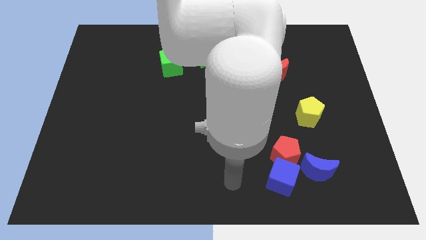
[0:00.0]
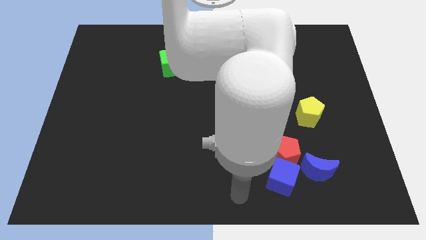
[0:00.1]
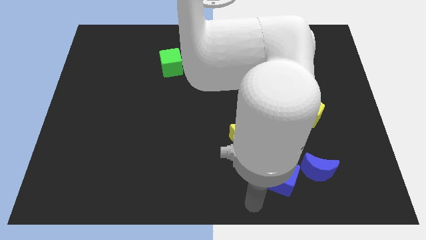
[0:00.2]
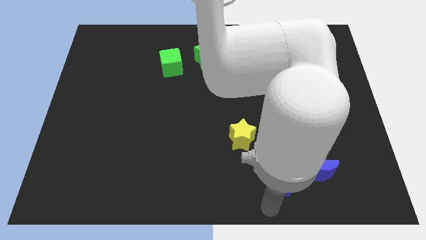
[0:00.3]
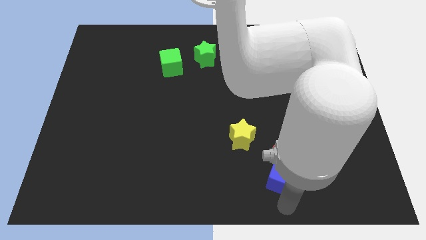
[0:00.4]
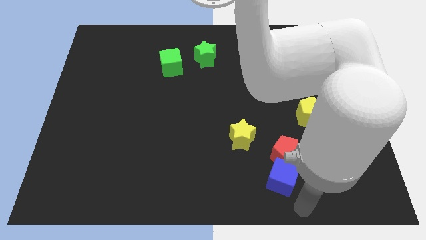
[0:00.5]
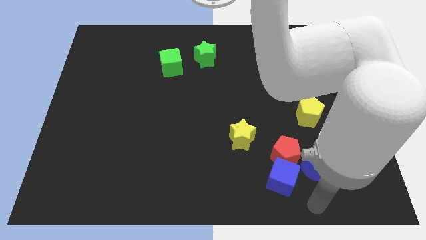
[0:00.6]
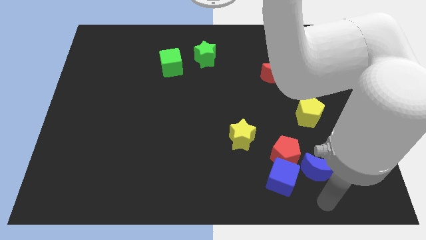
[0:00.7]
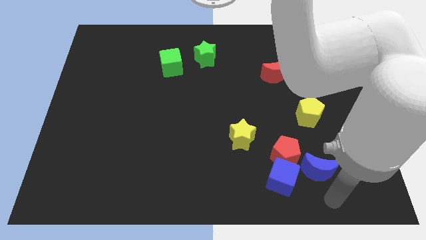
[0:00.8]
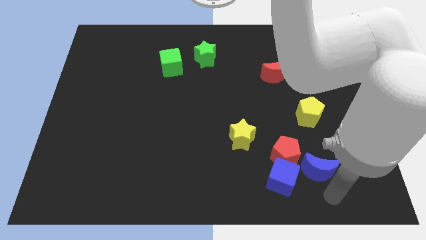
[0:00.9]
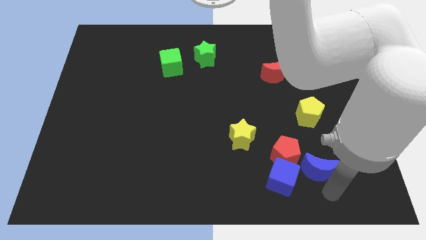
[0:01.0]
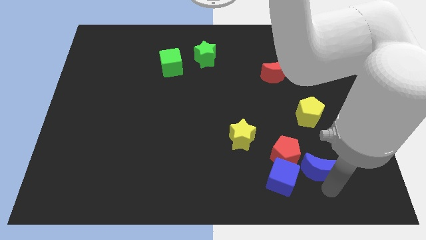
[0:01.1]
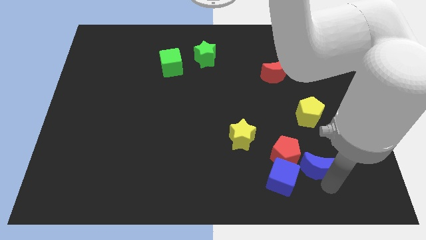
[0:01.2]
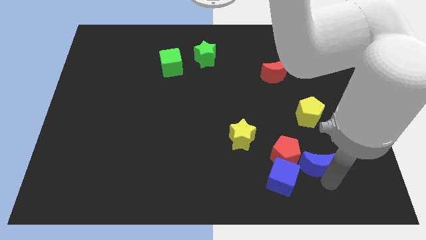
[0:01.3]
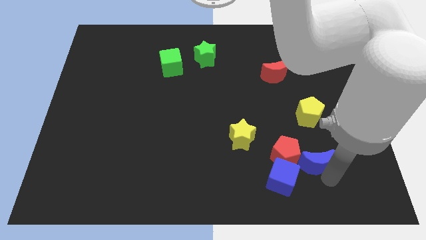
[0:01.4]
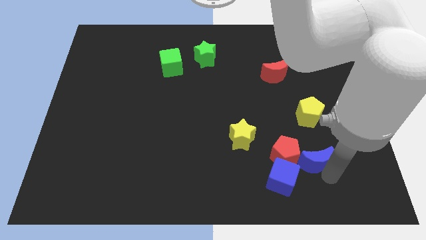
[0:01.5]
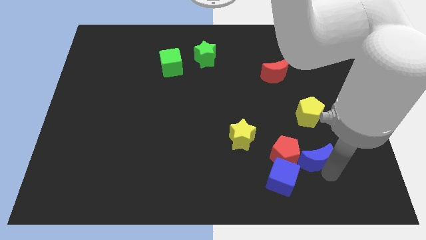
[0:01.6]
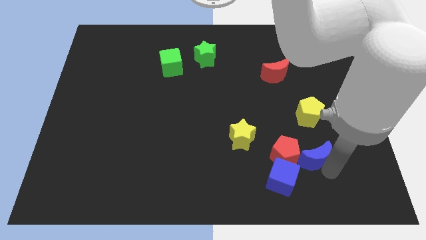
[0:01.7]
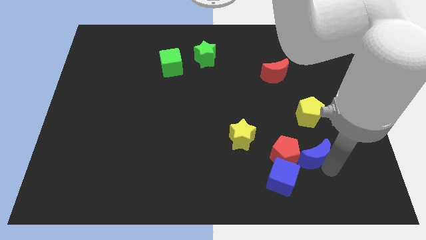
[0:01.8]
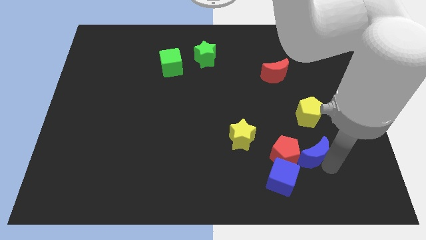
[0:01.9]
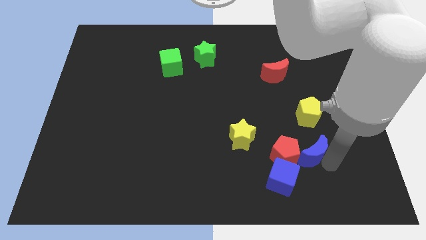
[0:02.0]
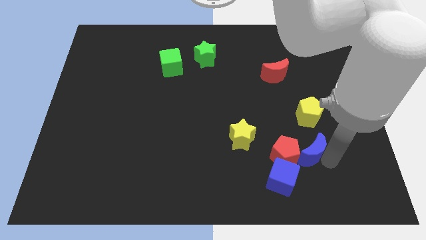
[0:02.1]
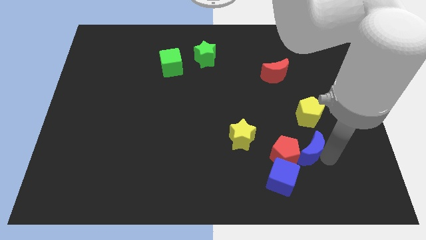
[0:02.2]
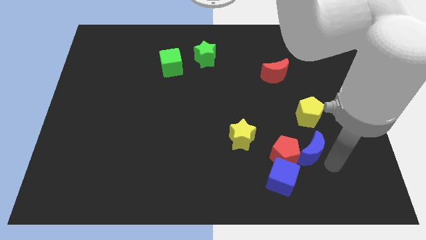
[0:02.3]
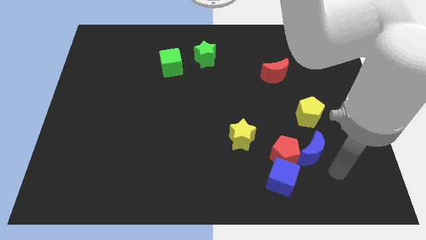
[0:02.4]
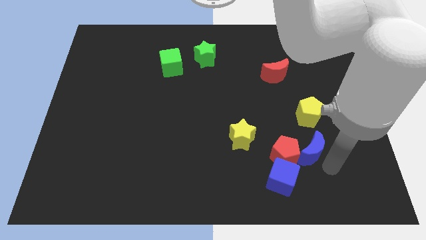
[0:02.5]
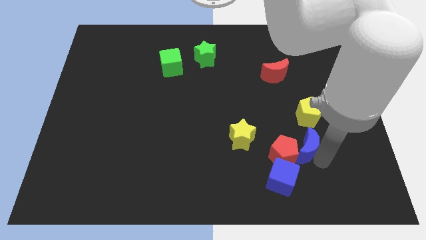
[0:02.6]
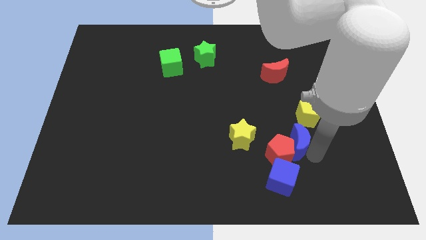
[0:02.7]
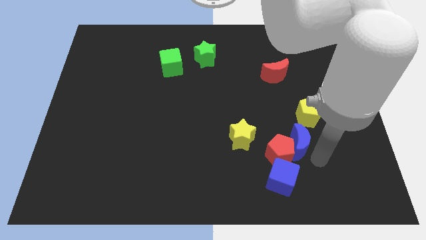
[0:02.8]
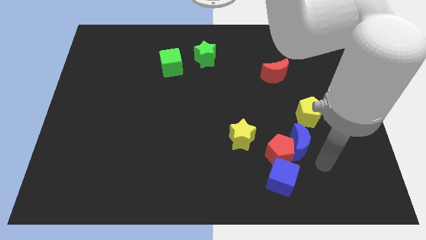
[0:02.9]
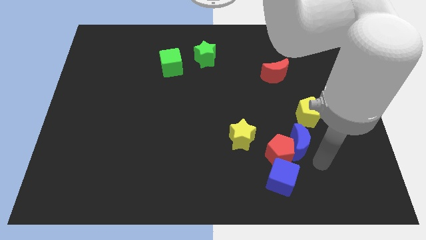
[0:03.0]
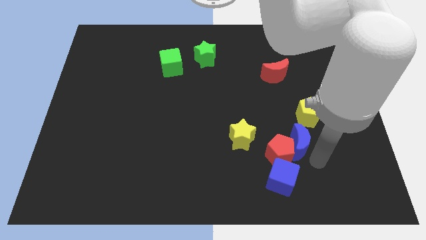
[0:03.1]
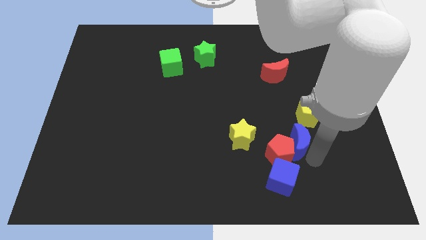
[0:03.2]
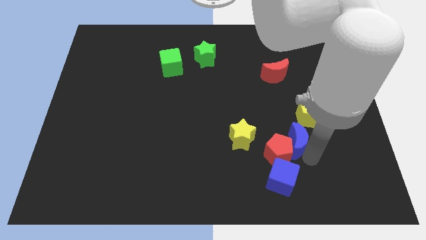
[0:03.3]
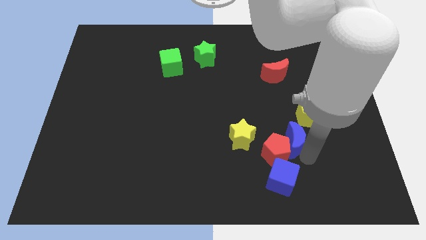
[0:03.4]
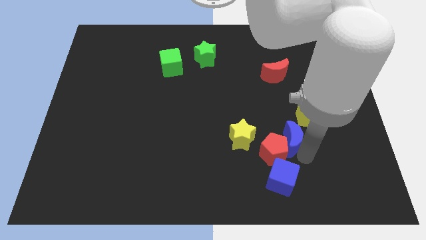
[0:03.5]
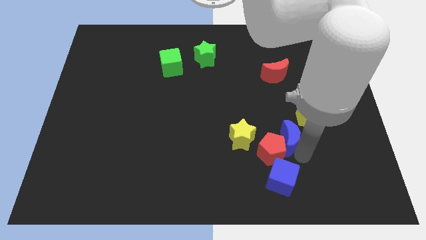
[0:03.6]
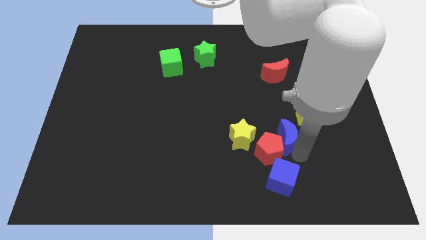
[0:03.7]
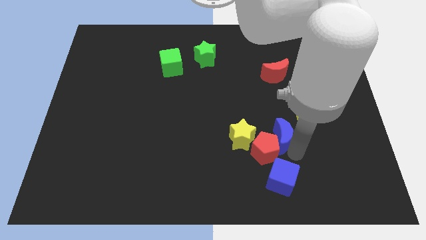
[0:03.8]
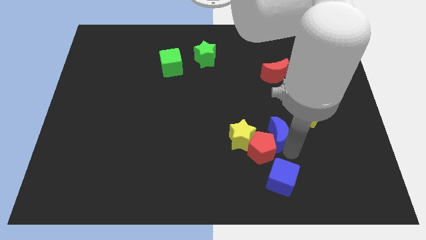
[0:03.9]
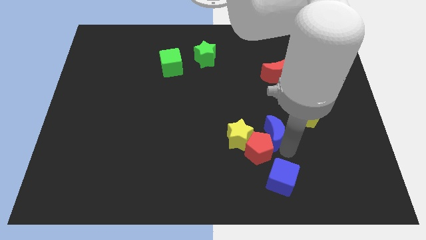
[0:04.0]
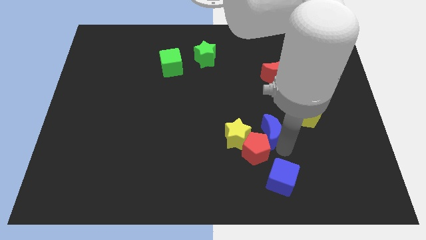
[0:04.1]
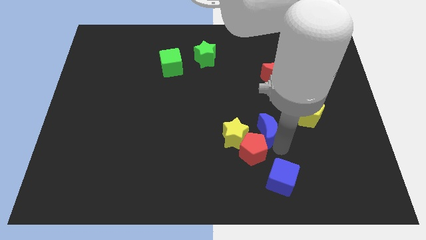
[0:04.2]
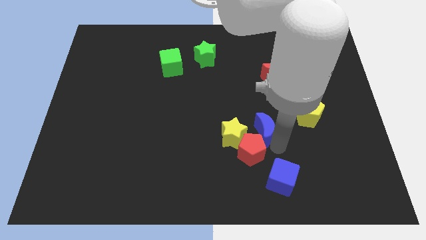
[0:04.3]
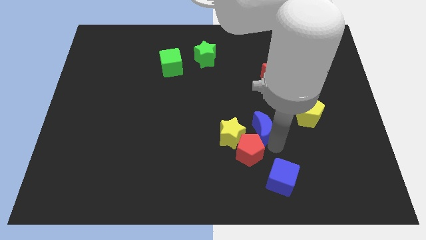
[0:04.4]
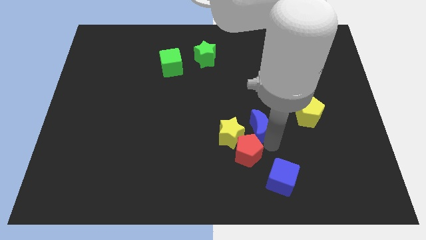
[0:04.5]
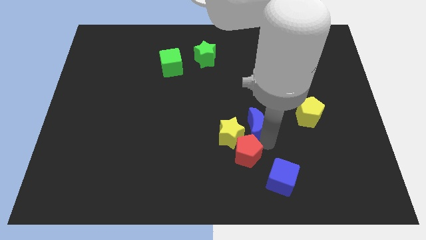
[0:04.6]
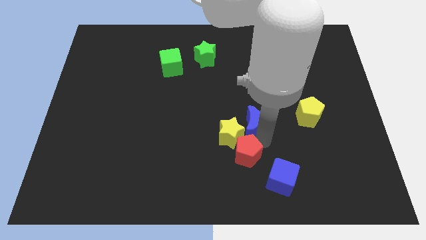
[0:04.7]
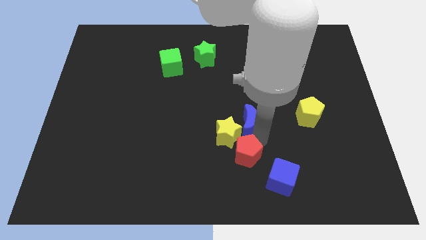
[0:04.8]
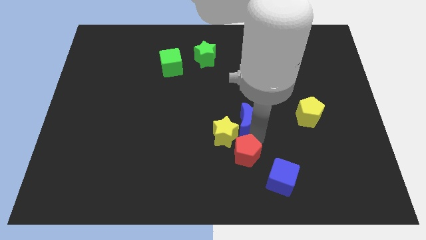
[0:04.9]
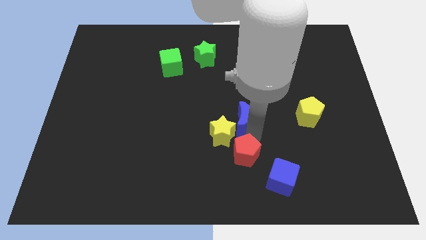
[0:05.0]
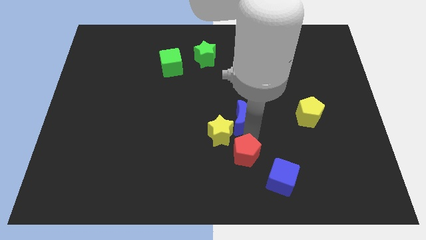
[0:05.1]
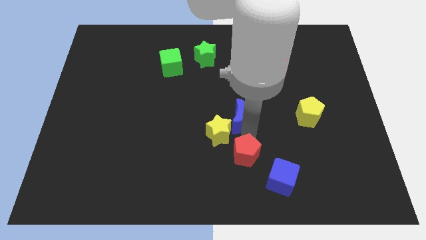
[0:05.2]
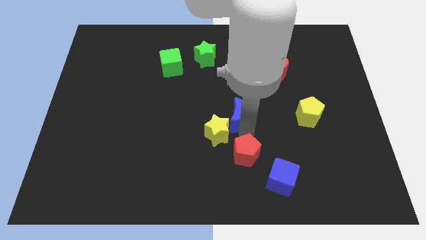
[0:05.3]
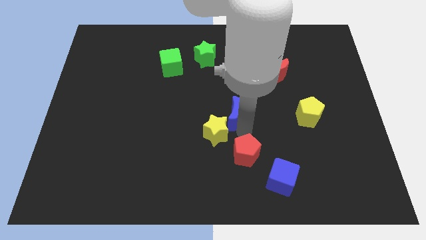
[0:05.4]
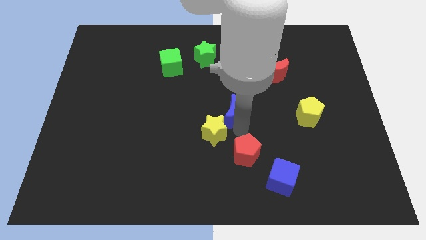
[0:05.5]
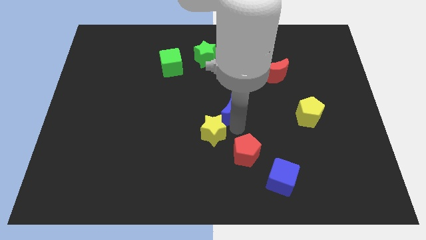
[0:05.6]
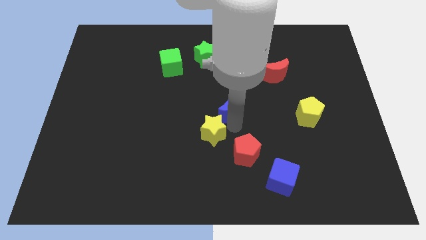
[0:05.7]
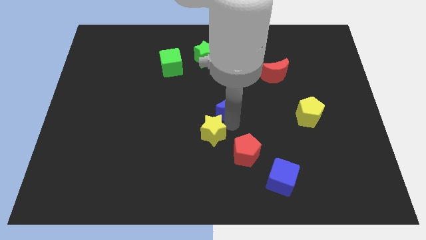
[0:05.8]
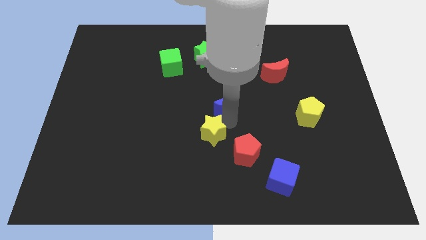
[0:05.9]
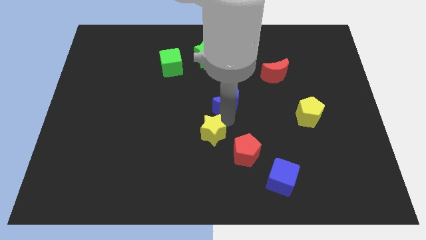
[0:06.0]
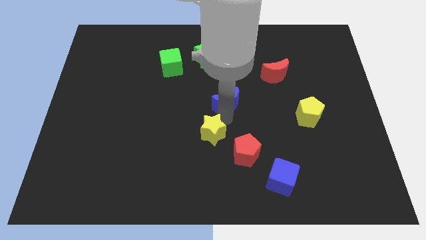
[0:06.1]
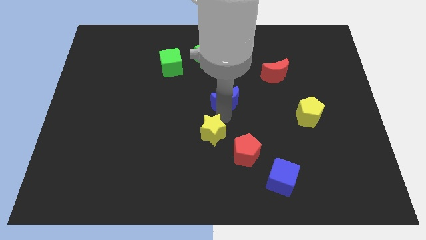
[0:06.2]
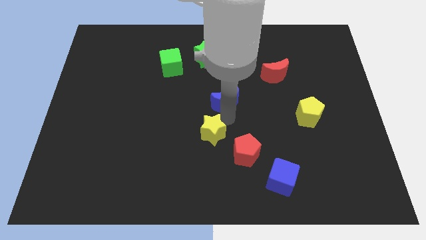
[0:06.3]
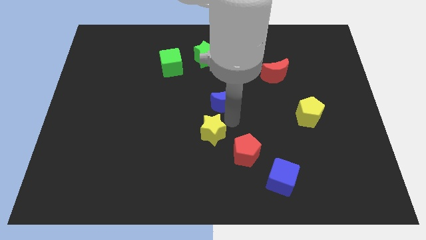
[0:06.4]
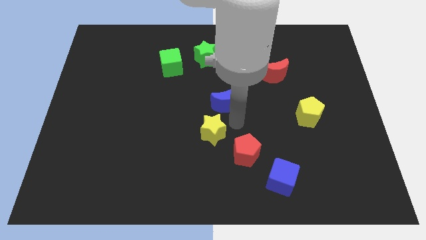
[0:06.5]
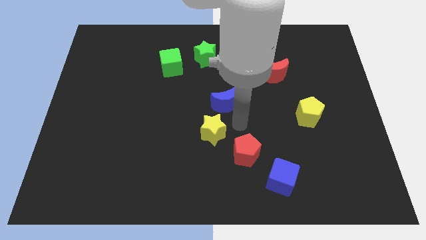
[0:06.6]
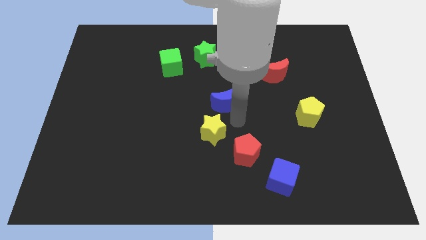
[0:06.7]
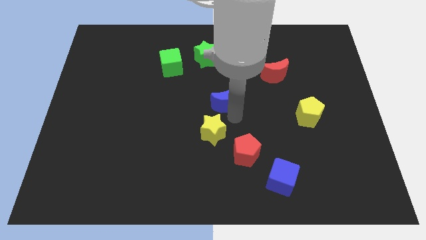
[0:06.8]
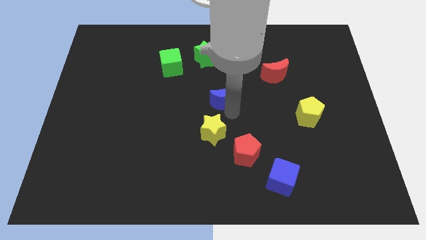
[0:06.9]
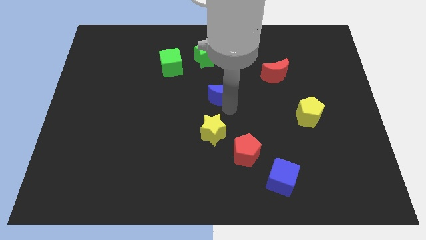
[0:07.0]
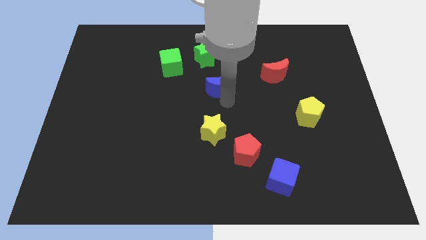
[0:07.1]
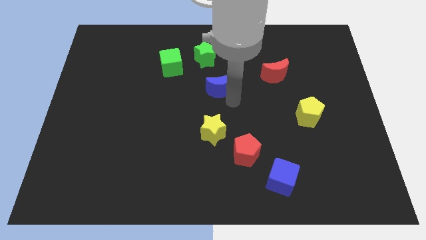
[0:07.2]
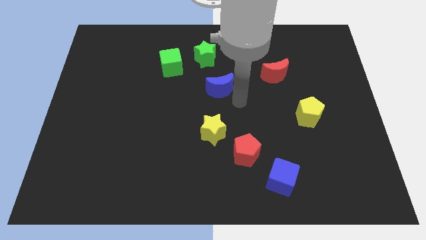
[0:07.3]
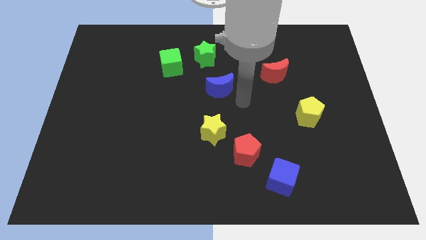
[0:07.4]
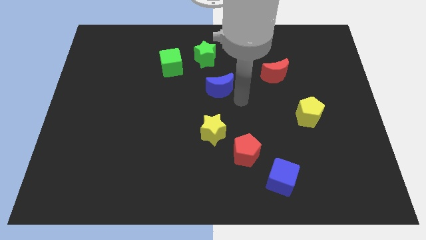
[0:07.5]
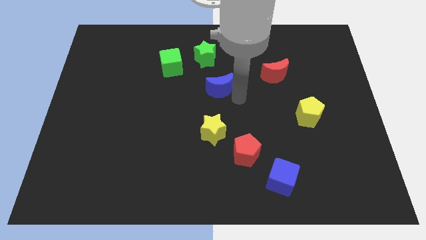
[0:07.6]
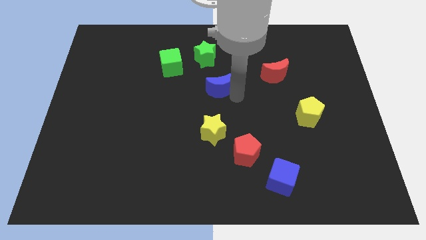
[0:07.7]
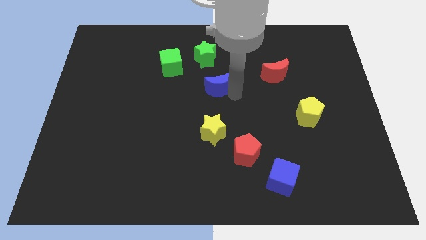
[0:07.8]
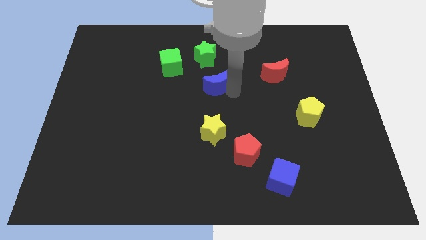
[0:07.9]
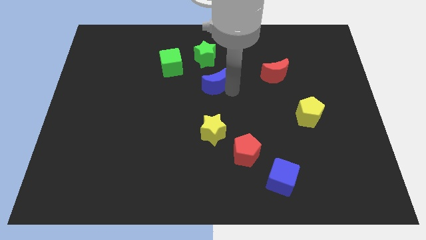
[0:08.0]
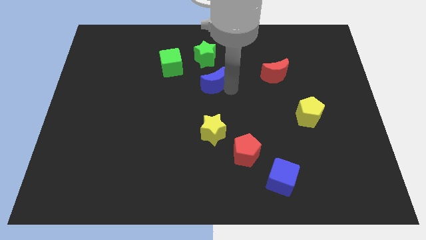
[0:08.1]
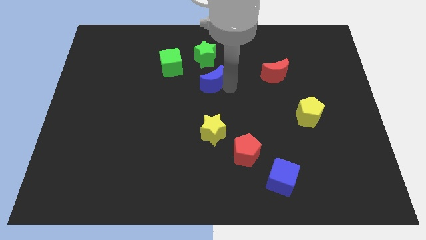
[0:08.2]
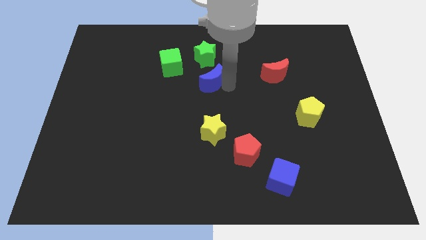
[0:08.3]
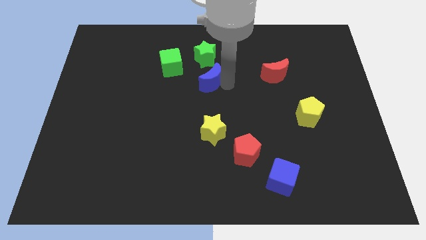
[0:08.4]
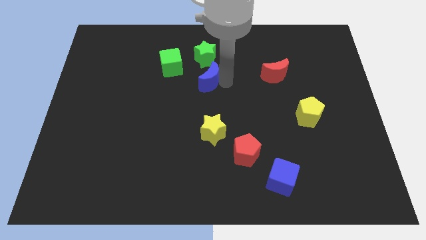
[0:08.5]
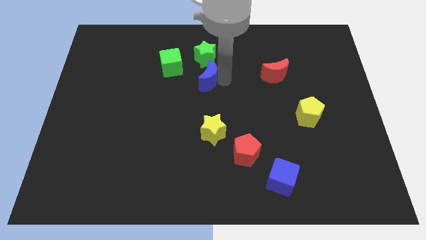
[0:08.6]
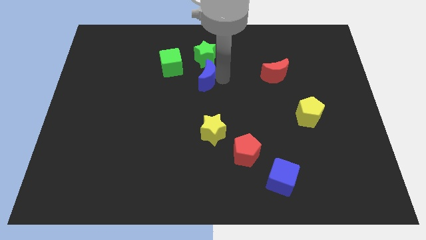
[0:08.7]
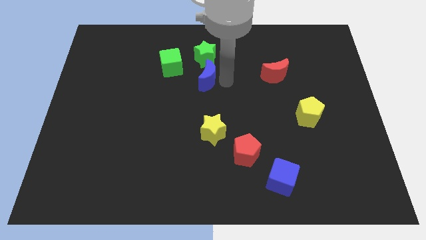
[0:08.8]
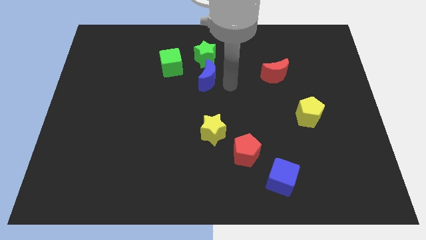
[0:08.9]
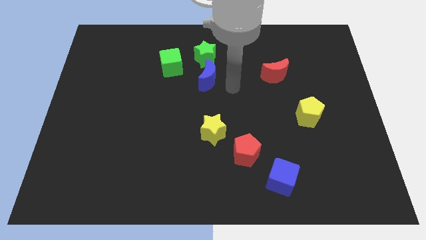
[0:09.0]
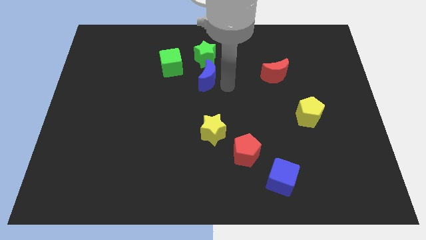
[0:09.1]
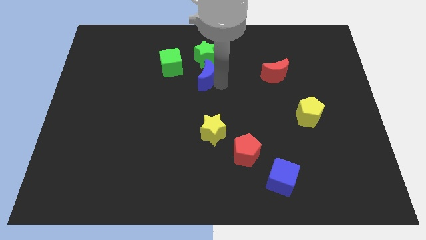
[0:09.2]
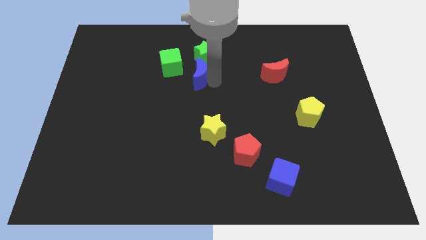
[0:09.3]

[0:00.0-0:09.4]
push the blue moon diagonally down and to the left of the green star
